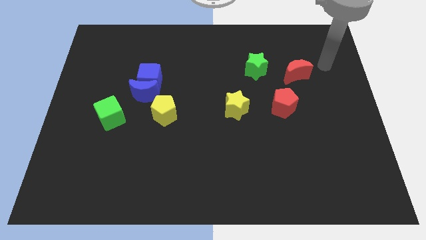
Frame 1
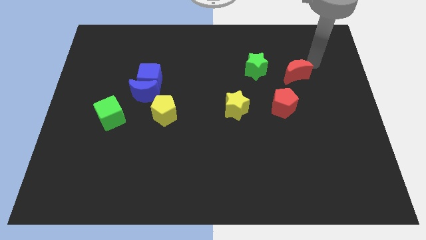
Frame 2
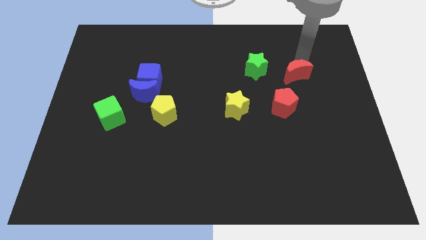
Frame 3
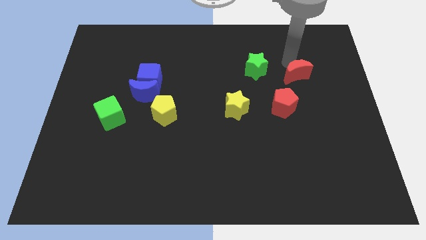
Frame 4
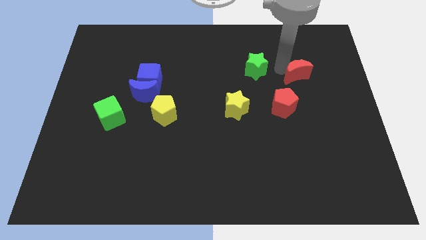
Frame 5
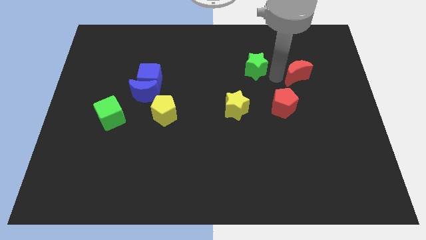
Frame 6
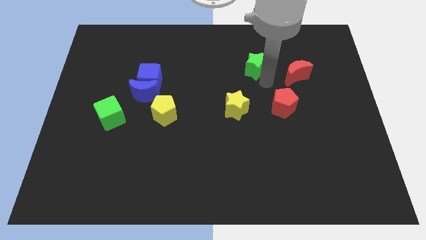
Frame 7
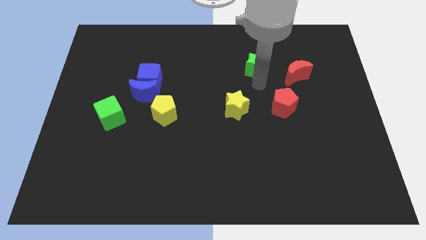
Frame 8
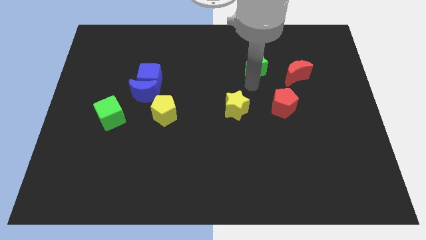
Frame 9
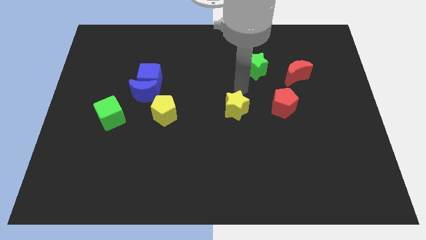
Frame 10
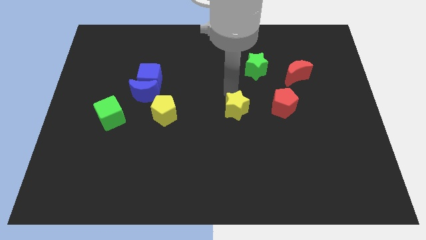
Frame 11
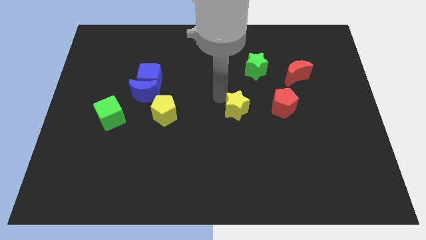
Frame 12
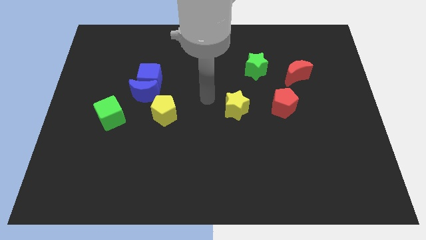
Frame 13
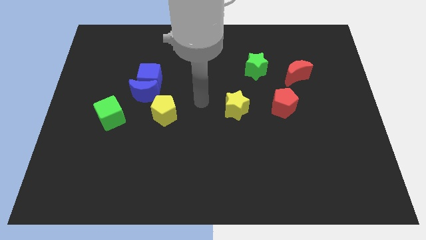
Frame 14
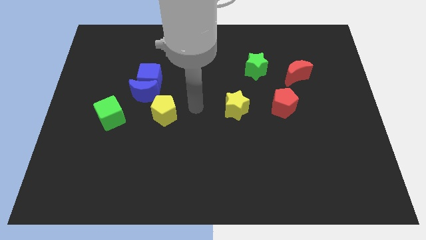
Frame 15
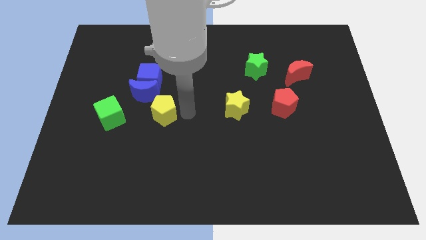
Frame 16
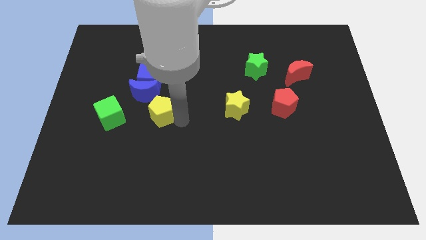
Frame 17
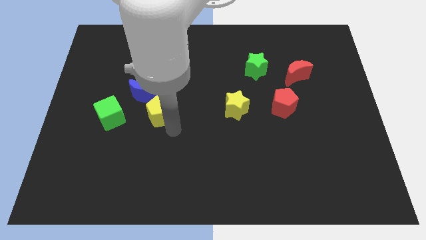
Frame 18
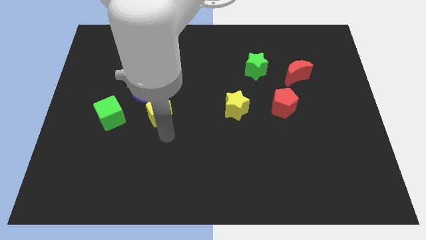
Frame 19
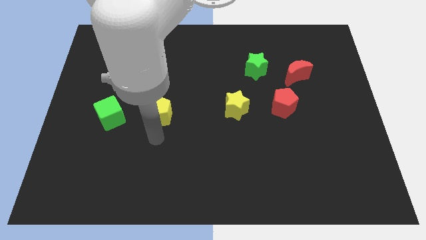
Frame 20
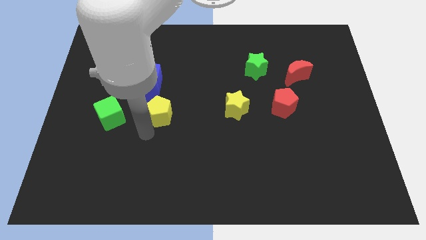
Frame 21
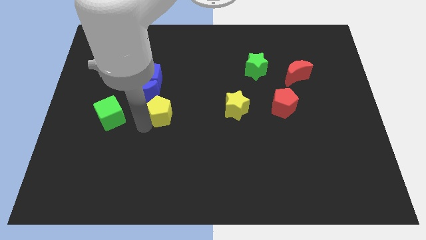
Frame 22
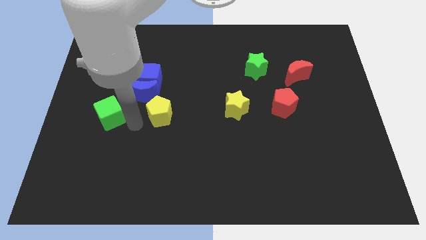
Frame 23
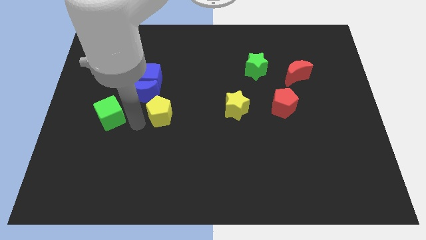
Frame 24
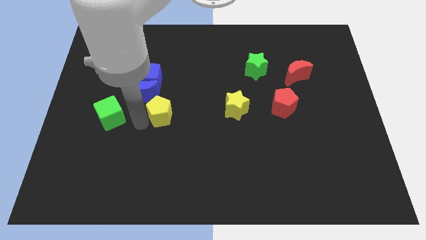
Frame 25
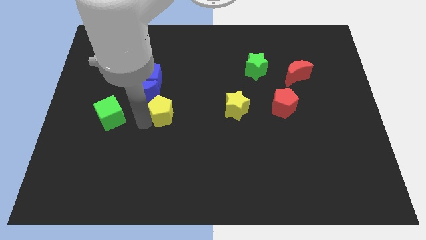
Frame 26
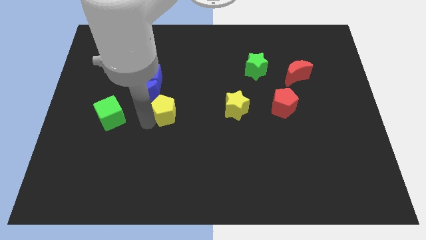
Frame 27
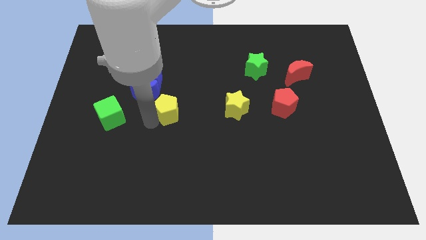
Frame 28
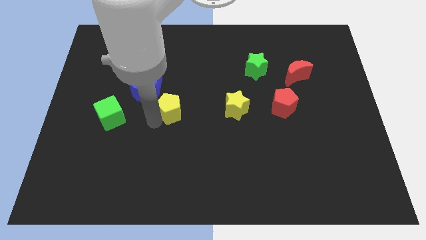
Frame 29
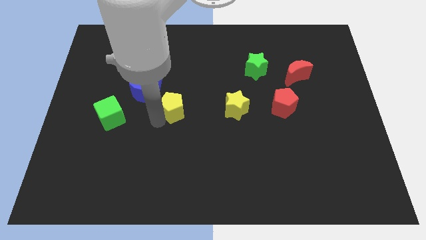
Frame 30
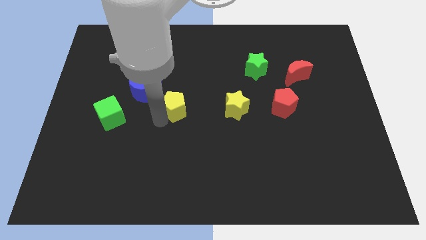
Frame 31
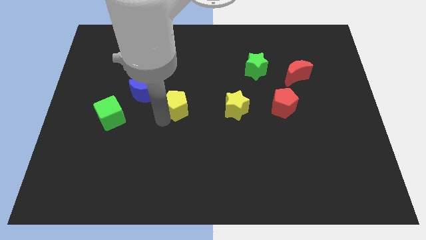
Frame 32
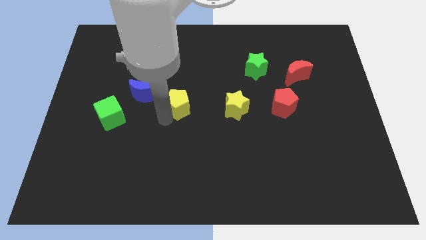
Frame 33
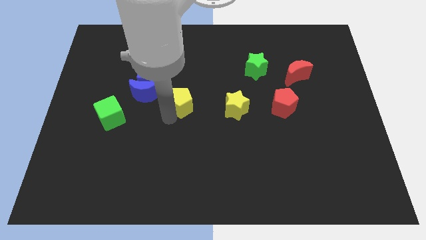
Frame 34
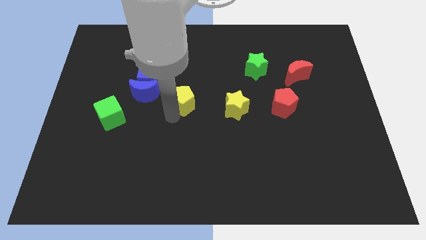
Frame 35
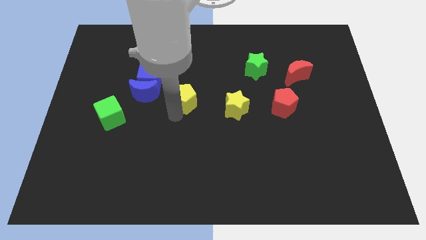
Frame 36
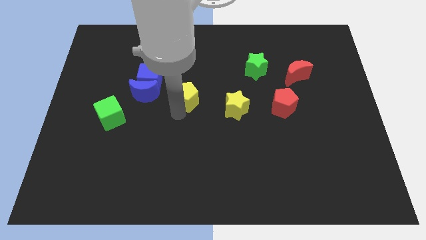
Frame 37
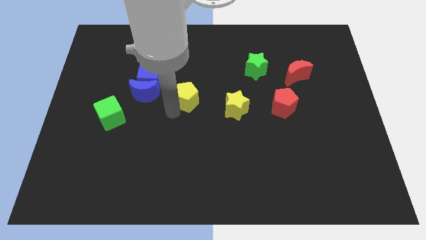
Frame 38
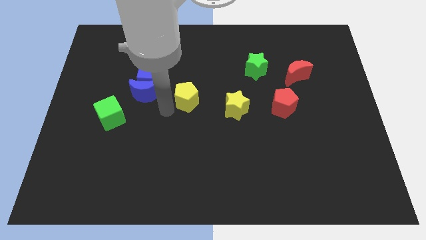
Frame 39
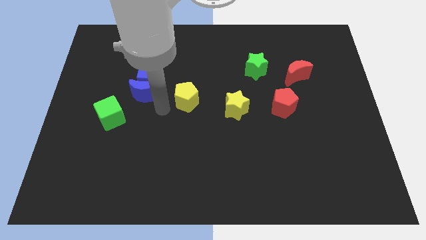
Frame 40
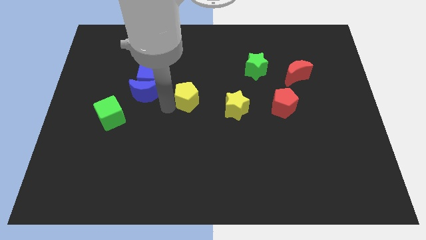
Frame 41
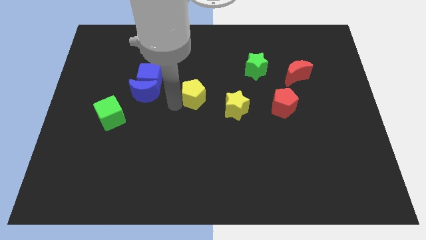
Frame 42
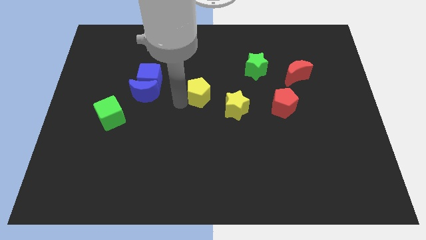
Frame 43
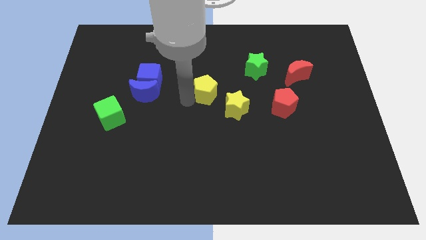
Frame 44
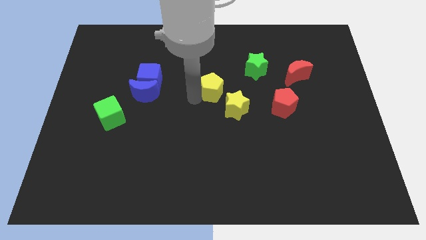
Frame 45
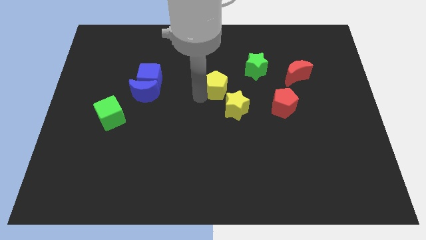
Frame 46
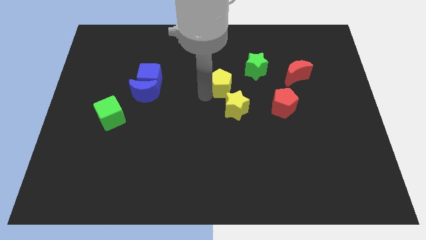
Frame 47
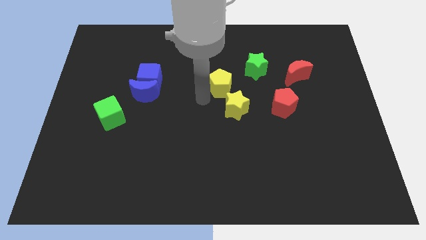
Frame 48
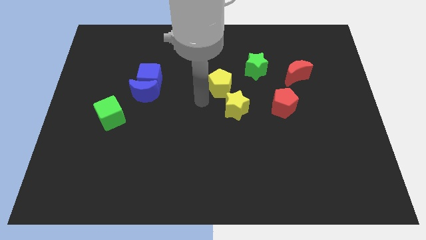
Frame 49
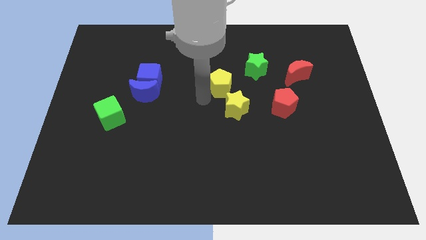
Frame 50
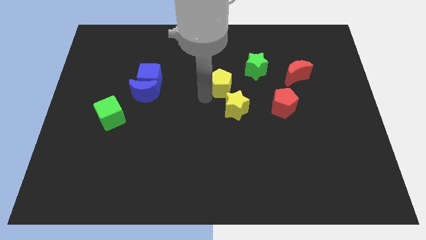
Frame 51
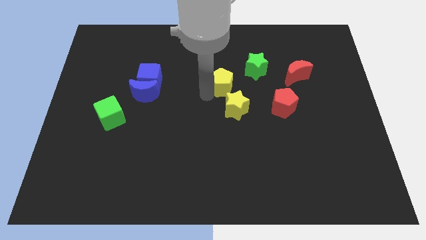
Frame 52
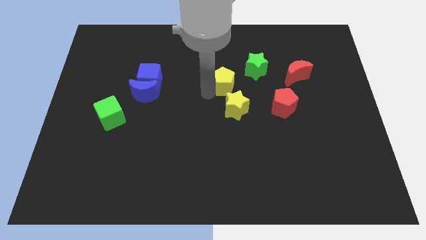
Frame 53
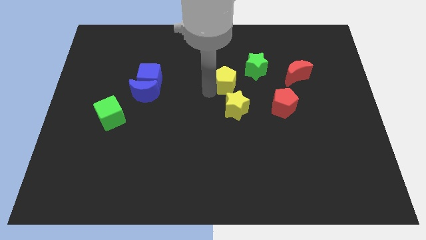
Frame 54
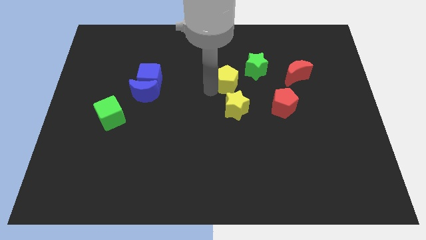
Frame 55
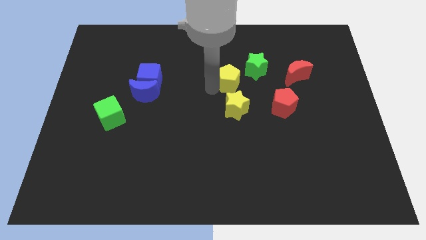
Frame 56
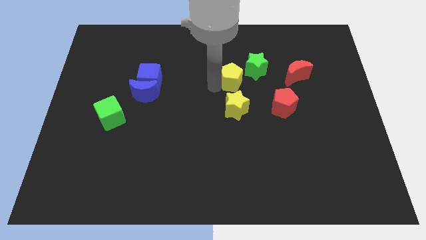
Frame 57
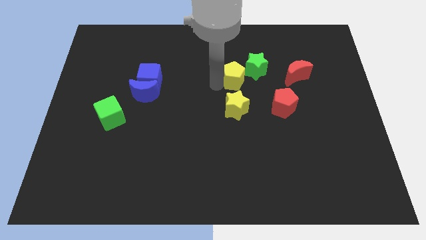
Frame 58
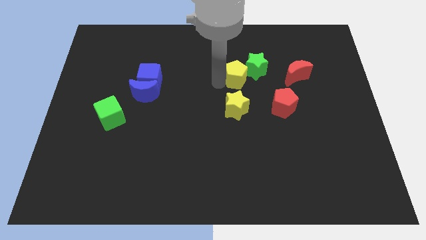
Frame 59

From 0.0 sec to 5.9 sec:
move the yellow pentagon next to the green star

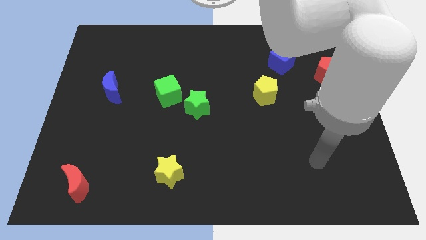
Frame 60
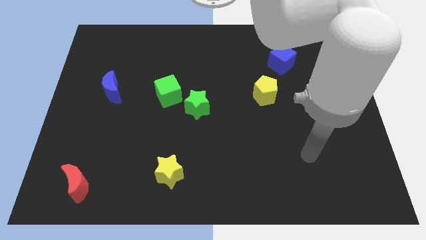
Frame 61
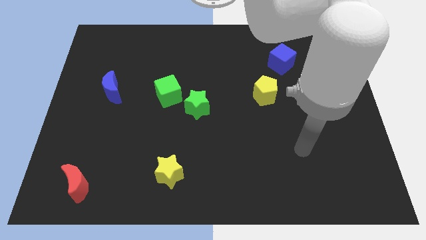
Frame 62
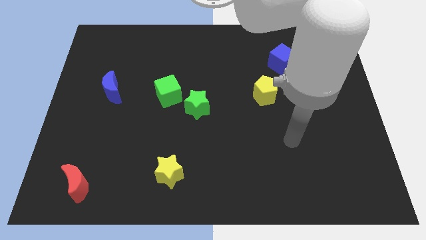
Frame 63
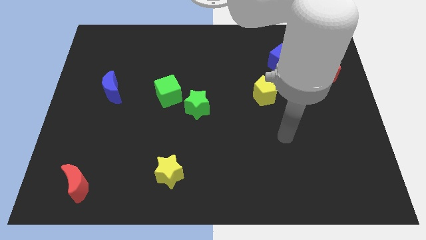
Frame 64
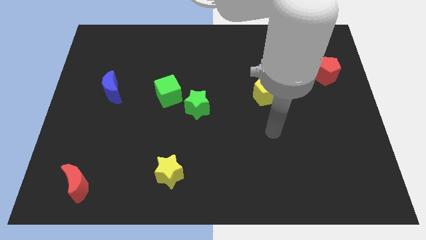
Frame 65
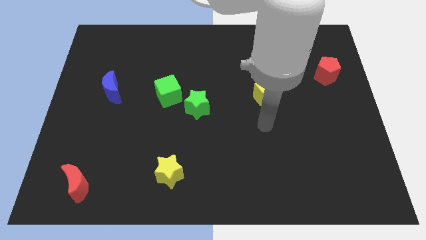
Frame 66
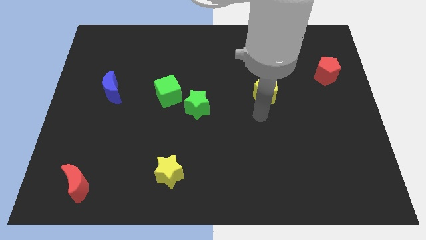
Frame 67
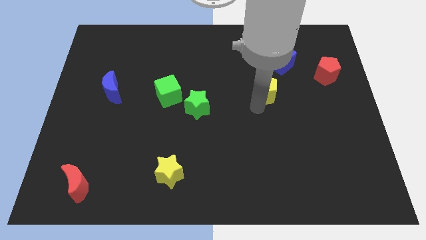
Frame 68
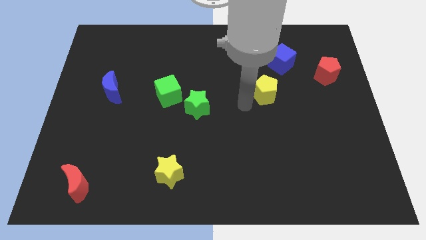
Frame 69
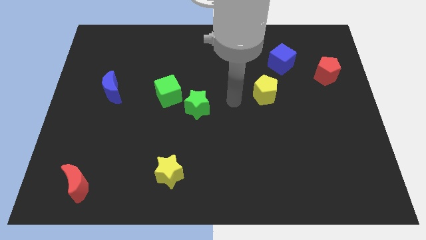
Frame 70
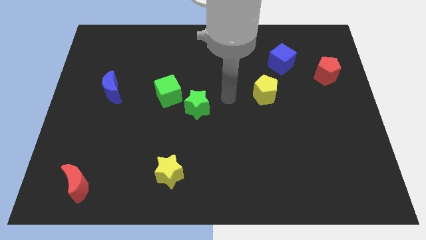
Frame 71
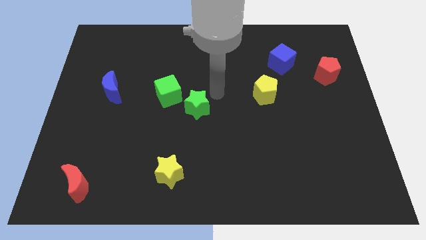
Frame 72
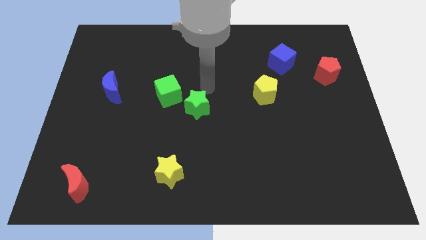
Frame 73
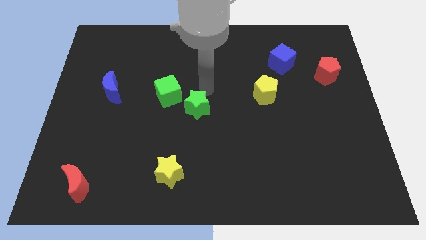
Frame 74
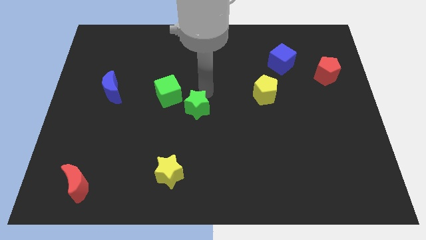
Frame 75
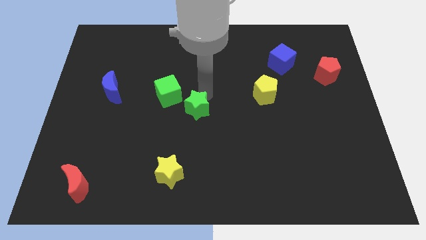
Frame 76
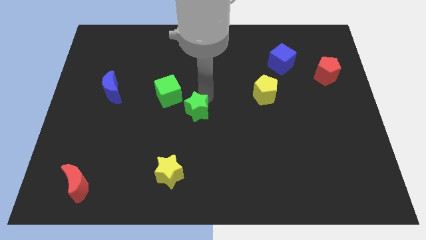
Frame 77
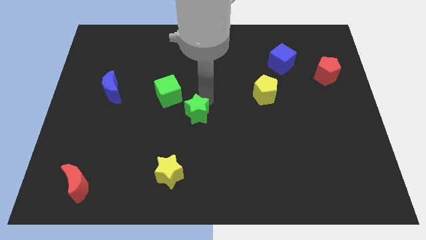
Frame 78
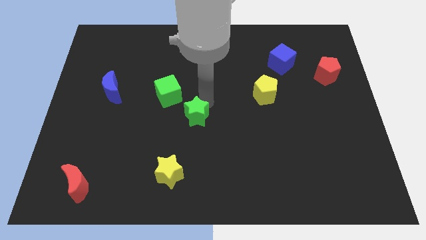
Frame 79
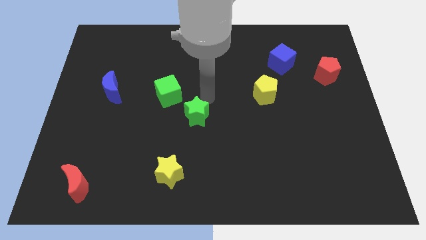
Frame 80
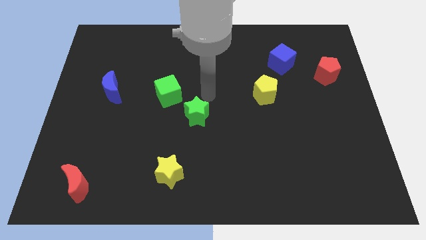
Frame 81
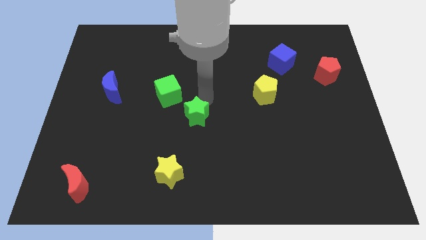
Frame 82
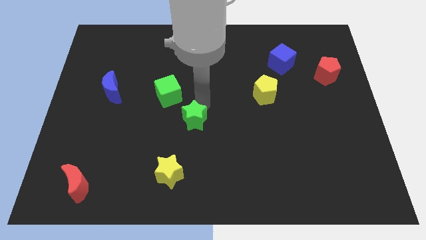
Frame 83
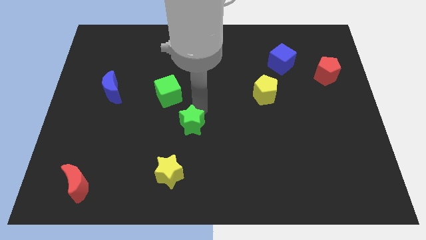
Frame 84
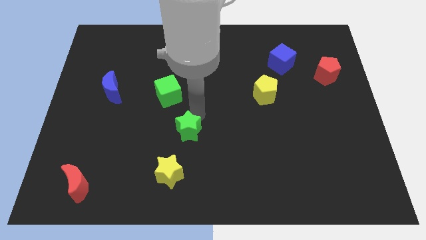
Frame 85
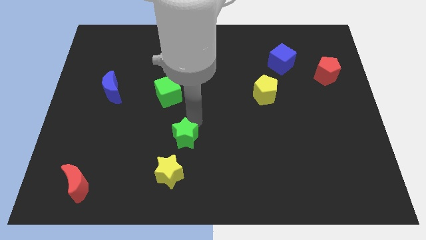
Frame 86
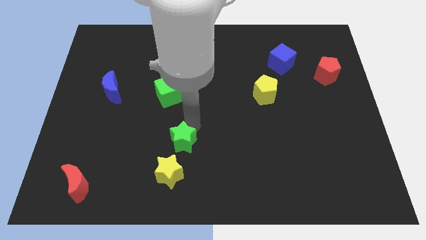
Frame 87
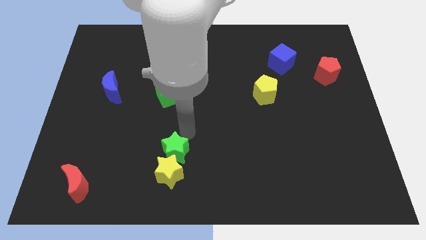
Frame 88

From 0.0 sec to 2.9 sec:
slide the green star towards the yellow star
